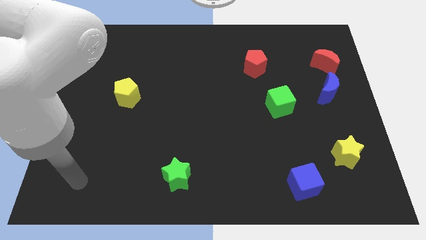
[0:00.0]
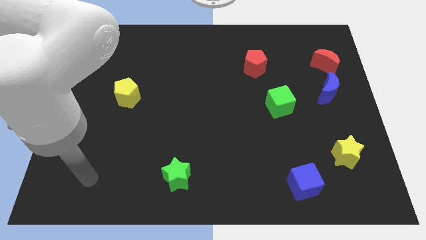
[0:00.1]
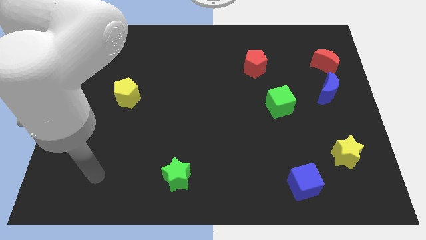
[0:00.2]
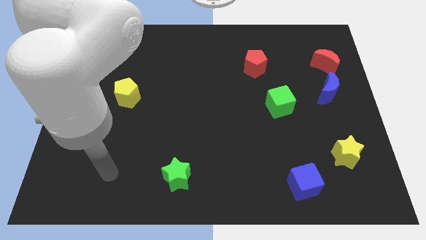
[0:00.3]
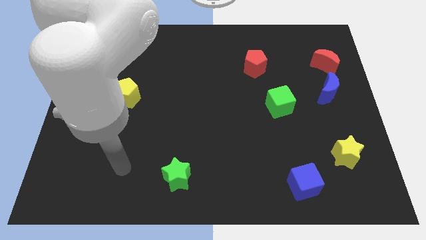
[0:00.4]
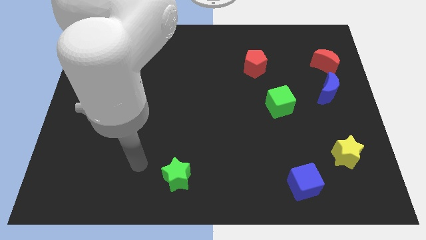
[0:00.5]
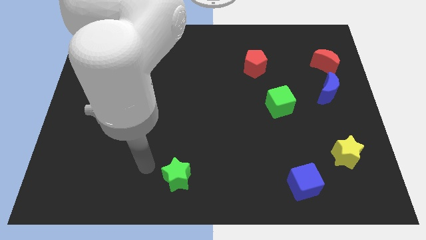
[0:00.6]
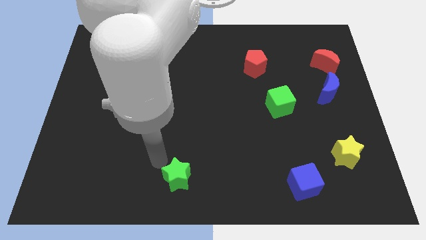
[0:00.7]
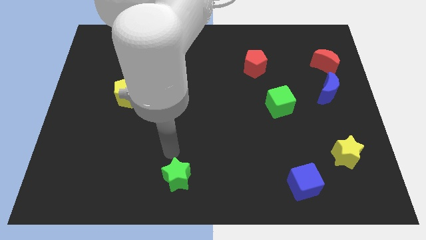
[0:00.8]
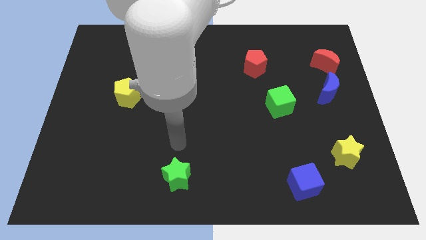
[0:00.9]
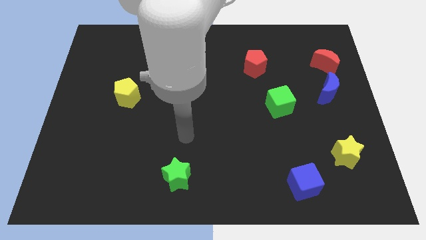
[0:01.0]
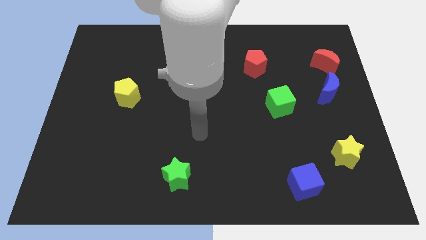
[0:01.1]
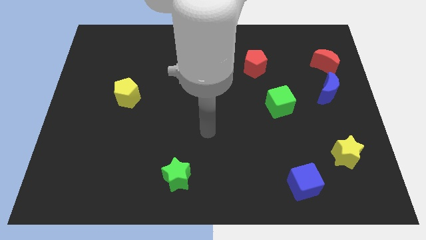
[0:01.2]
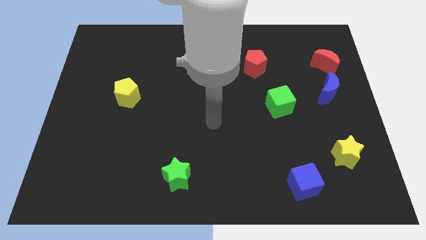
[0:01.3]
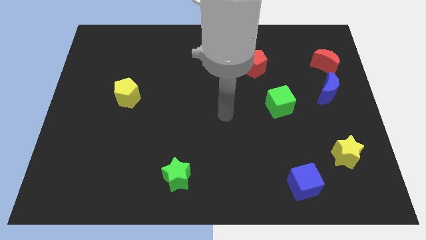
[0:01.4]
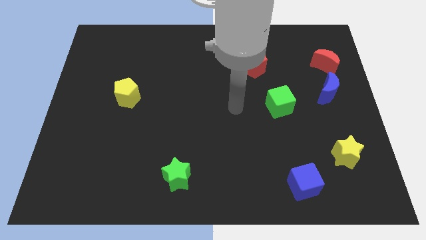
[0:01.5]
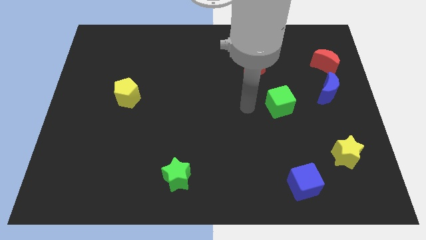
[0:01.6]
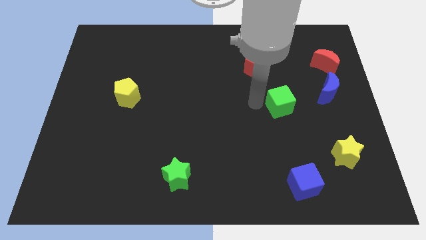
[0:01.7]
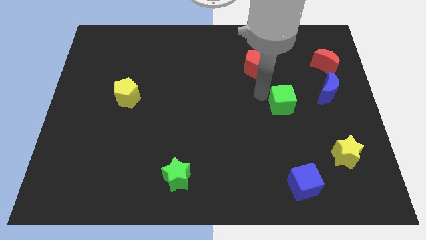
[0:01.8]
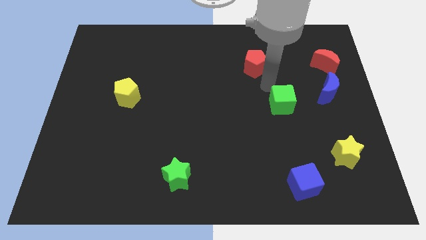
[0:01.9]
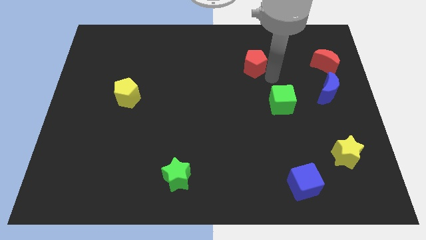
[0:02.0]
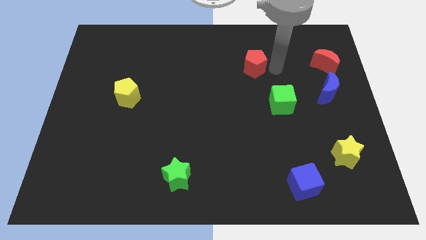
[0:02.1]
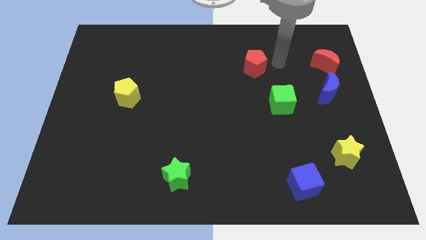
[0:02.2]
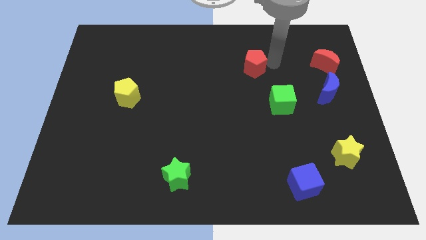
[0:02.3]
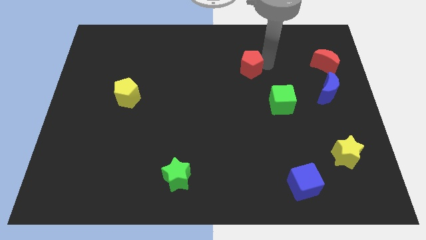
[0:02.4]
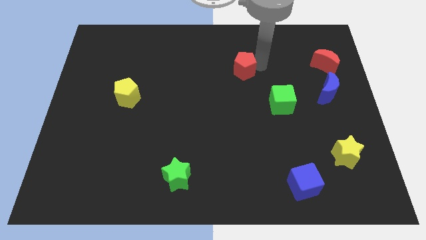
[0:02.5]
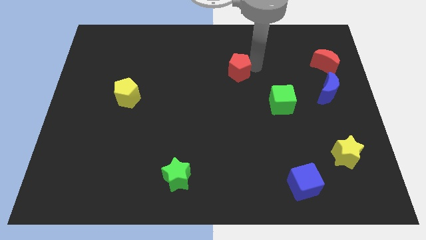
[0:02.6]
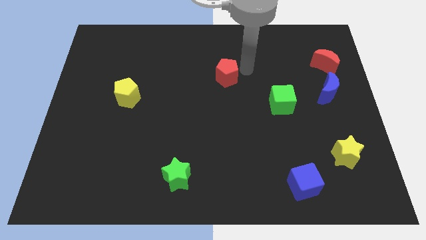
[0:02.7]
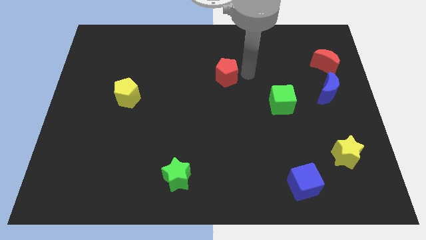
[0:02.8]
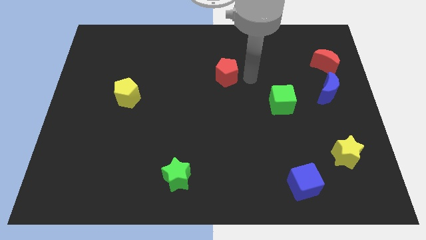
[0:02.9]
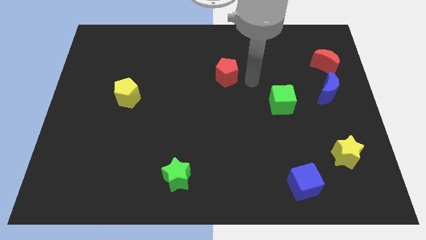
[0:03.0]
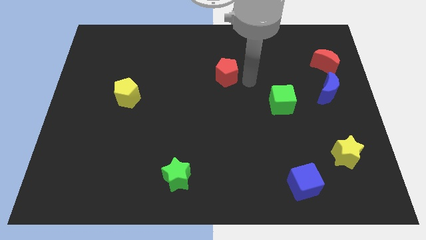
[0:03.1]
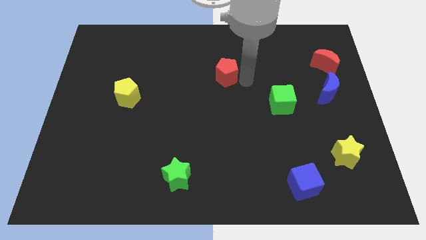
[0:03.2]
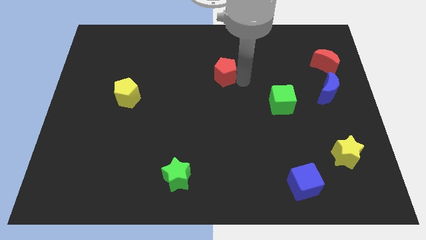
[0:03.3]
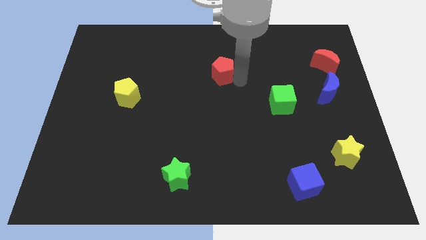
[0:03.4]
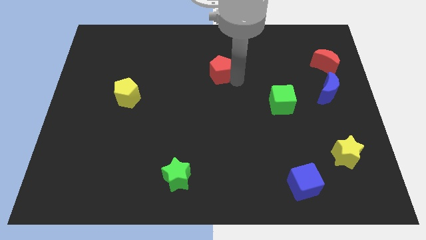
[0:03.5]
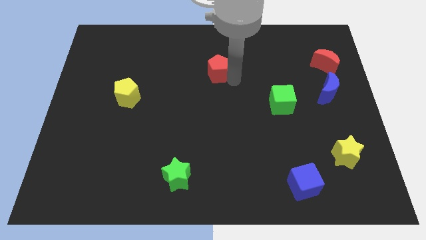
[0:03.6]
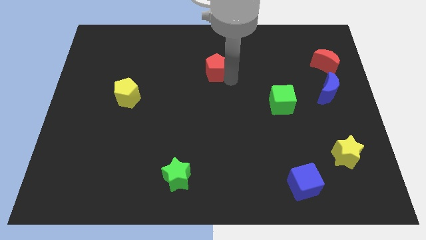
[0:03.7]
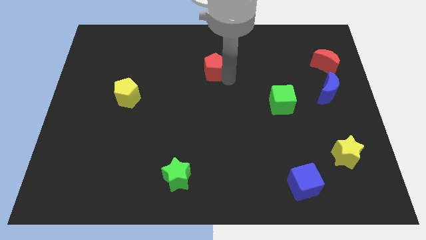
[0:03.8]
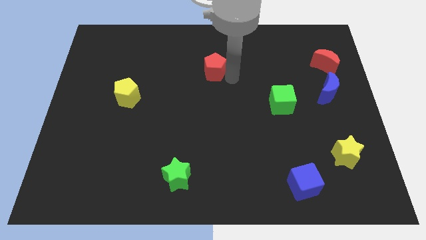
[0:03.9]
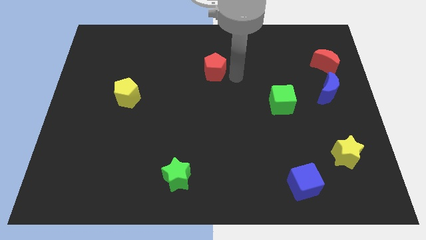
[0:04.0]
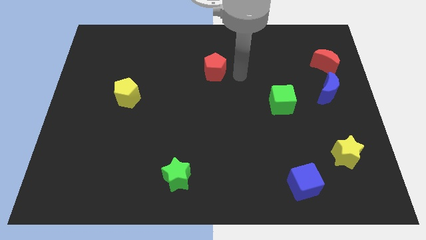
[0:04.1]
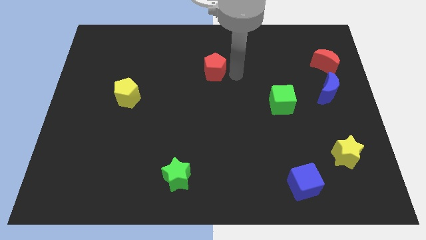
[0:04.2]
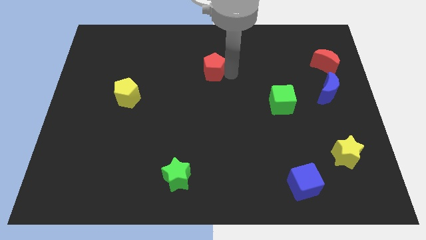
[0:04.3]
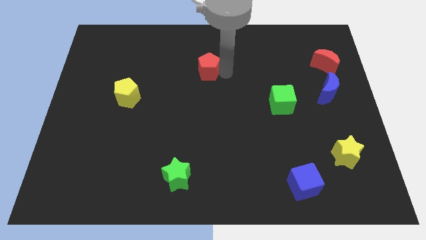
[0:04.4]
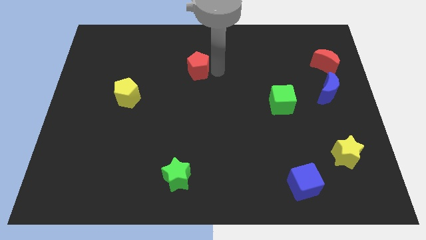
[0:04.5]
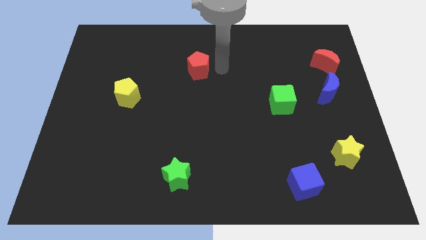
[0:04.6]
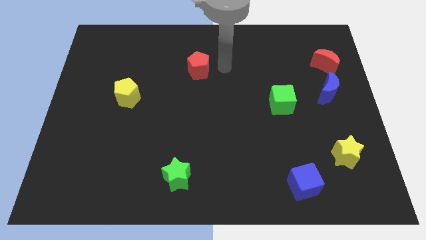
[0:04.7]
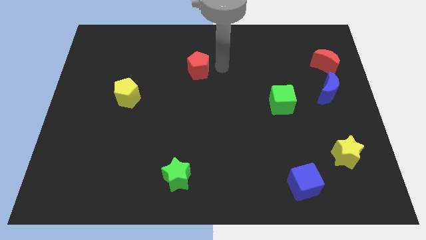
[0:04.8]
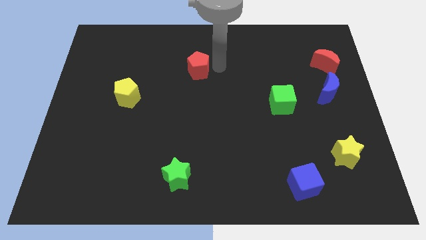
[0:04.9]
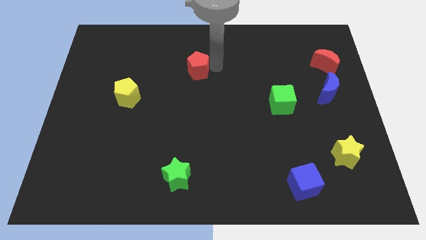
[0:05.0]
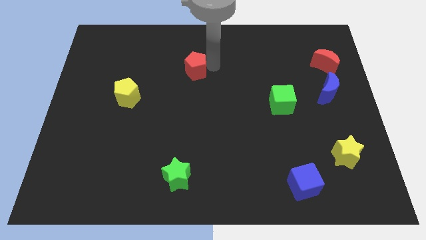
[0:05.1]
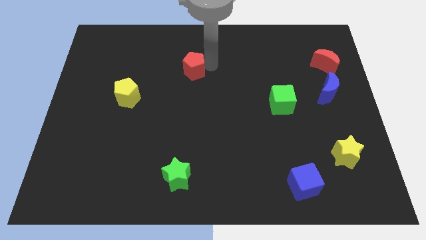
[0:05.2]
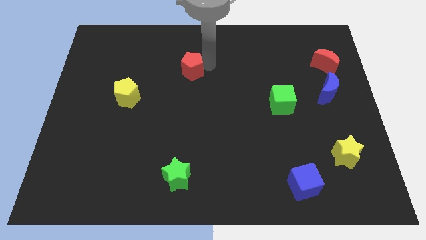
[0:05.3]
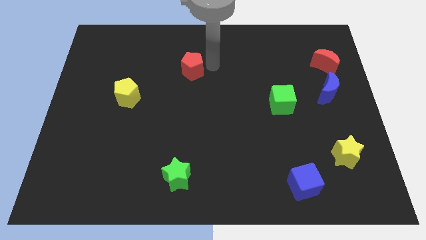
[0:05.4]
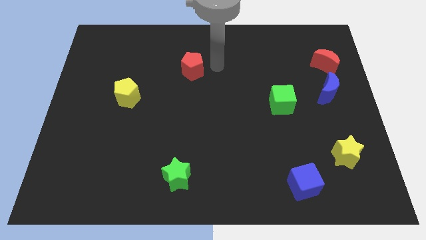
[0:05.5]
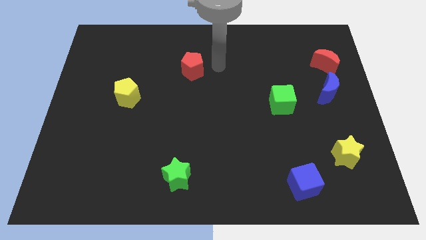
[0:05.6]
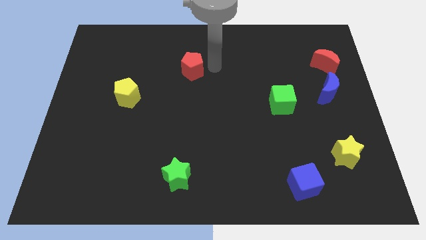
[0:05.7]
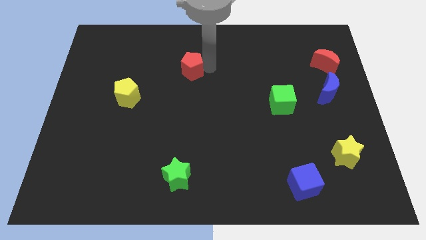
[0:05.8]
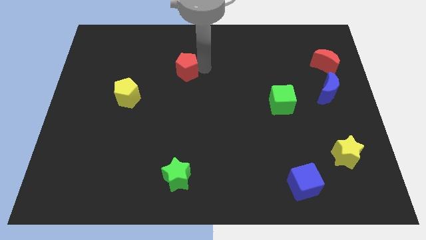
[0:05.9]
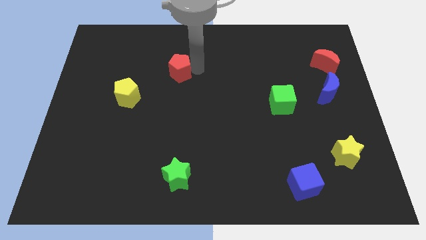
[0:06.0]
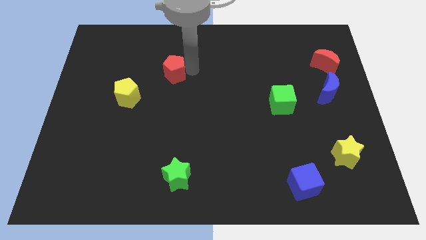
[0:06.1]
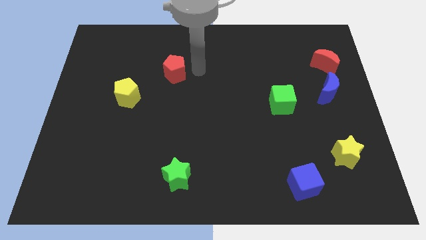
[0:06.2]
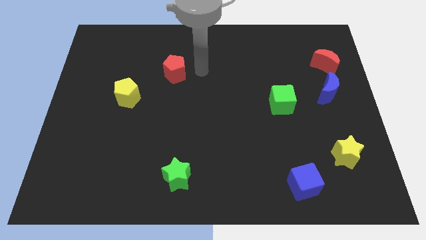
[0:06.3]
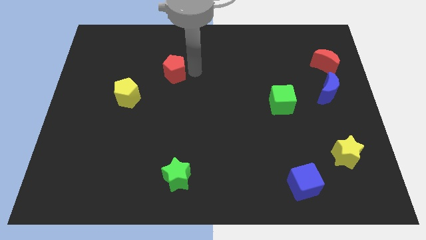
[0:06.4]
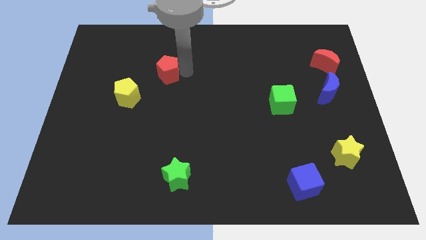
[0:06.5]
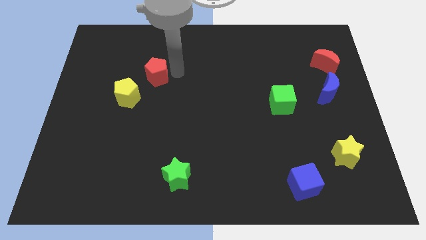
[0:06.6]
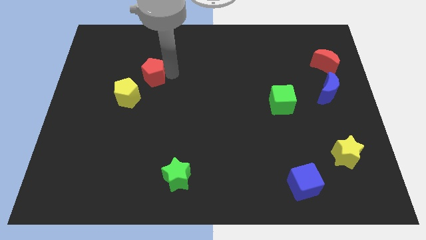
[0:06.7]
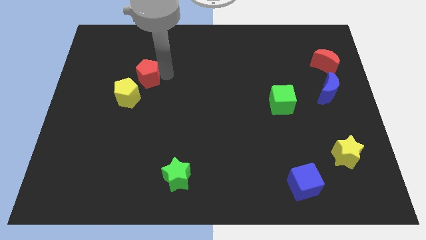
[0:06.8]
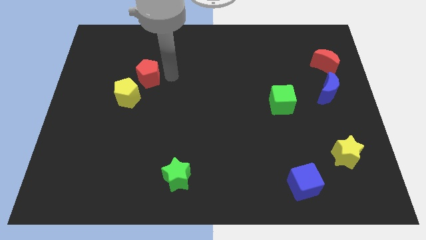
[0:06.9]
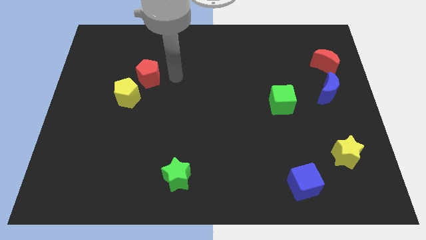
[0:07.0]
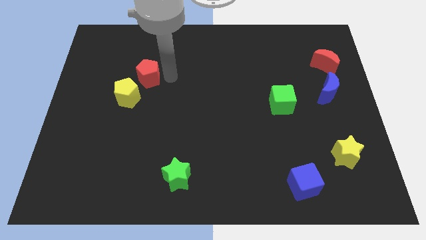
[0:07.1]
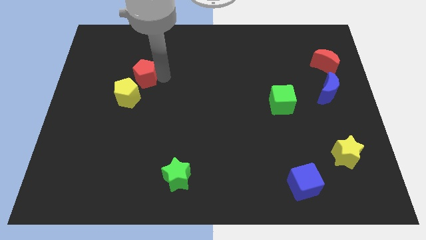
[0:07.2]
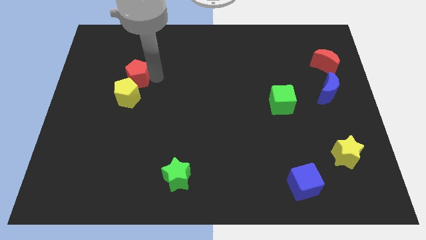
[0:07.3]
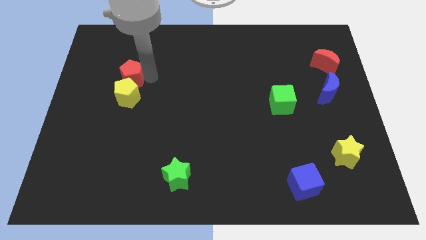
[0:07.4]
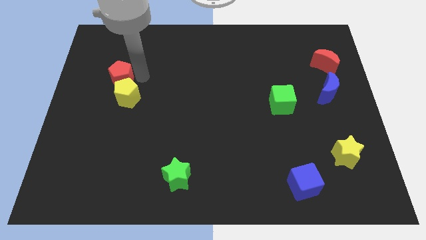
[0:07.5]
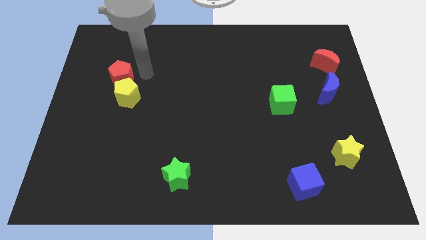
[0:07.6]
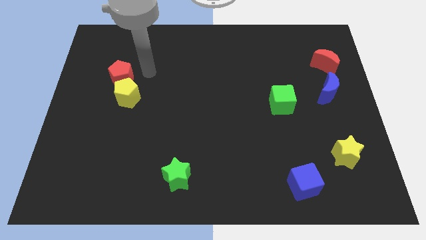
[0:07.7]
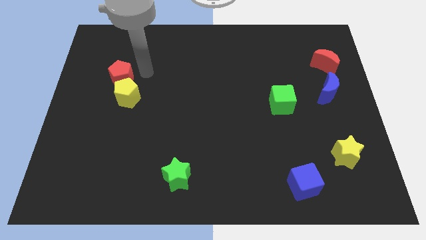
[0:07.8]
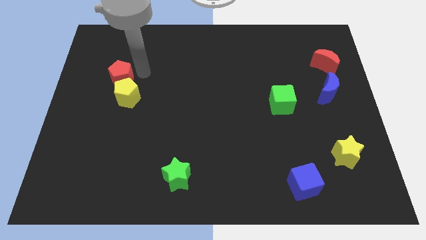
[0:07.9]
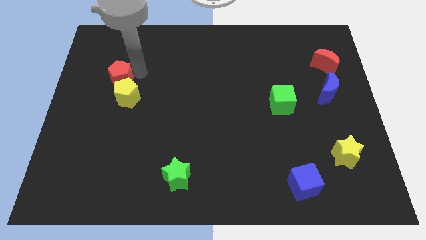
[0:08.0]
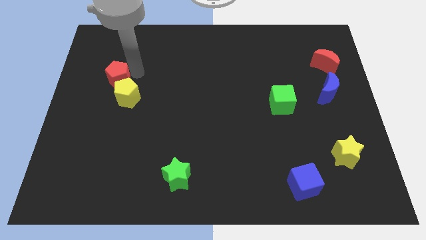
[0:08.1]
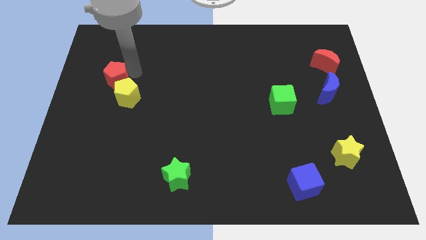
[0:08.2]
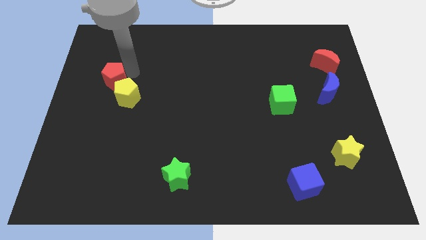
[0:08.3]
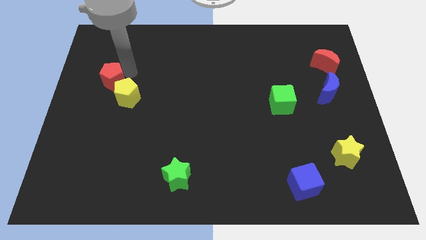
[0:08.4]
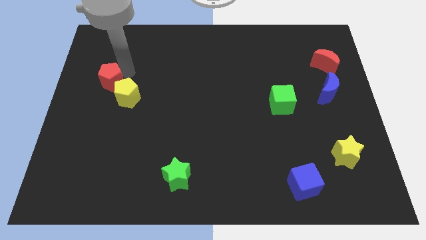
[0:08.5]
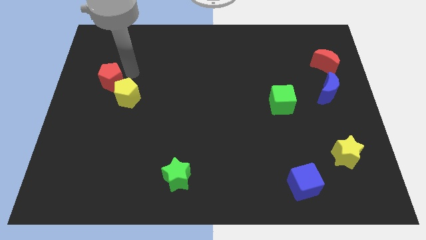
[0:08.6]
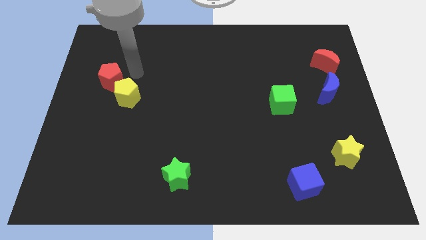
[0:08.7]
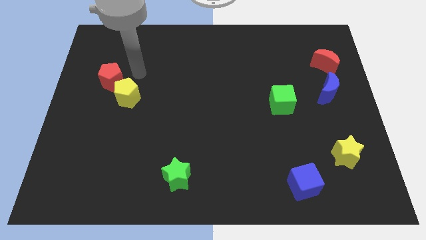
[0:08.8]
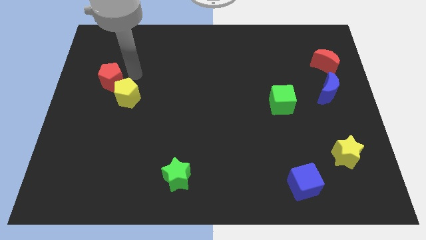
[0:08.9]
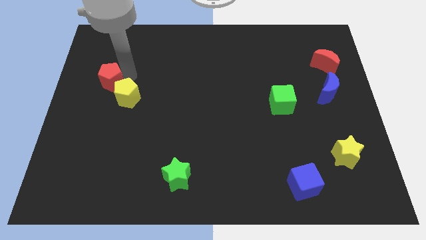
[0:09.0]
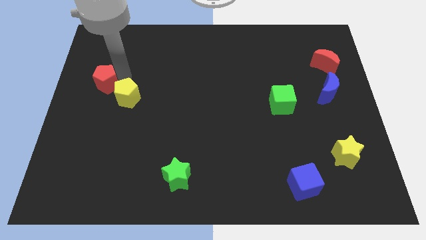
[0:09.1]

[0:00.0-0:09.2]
put the red pentagon to the center left
